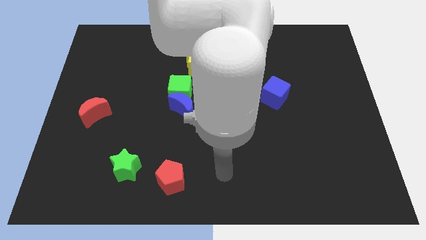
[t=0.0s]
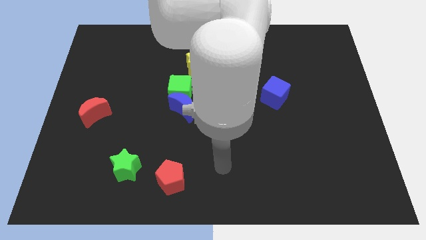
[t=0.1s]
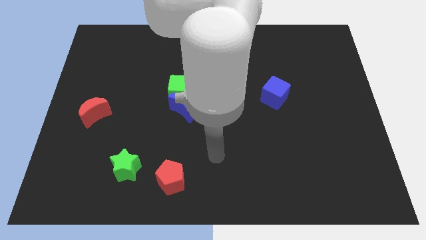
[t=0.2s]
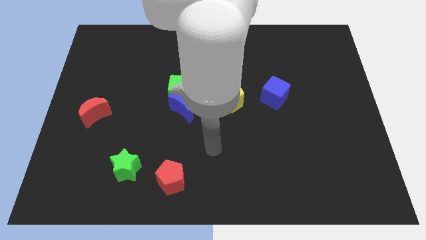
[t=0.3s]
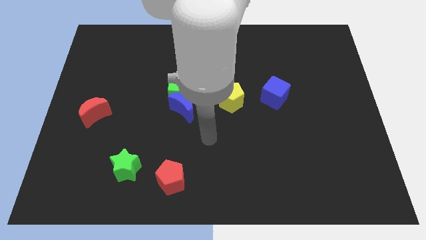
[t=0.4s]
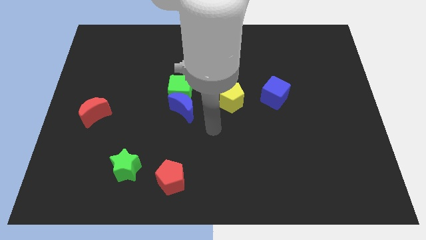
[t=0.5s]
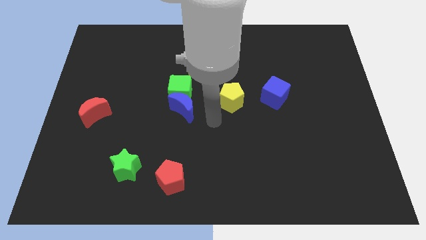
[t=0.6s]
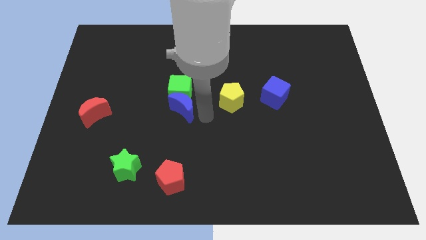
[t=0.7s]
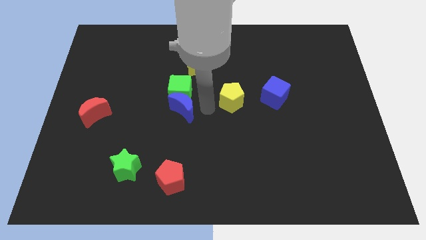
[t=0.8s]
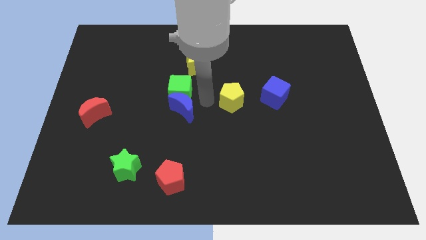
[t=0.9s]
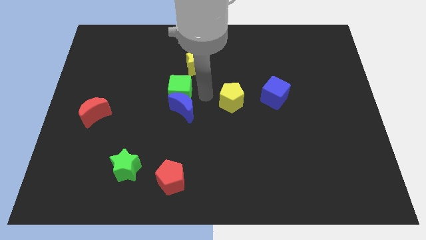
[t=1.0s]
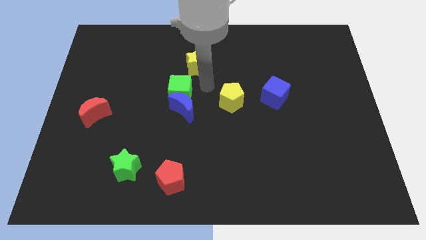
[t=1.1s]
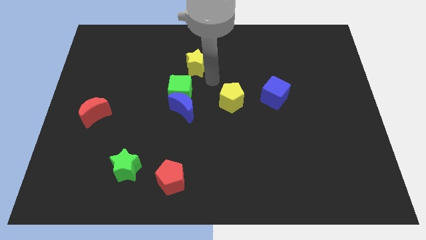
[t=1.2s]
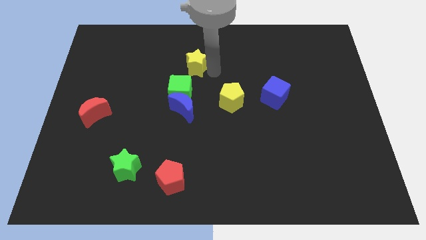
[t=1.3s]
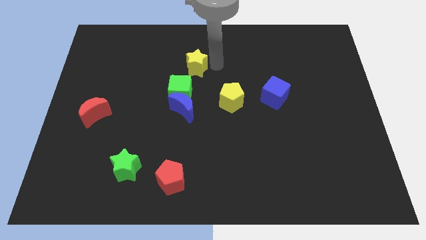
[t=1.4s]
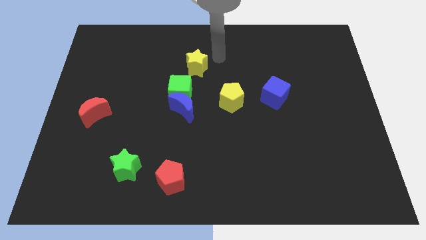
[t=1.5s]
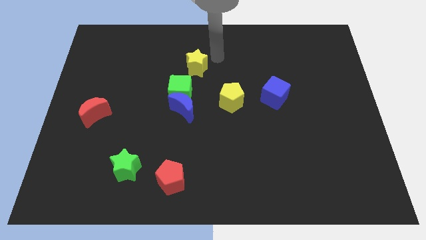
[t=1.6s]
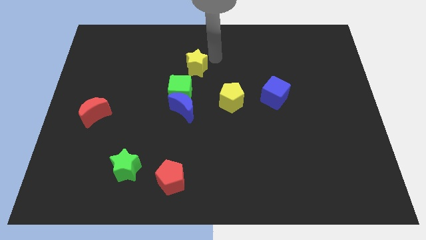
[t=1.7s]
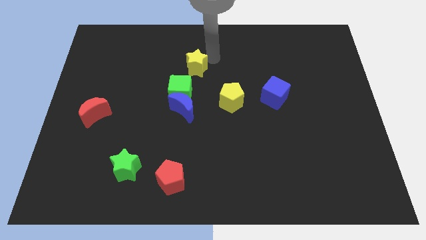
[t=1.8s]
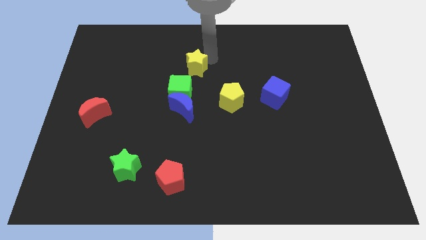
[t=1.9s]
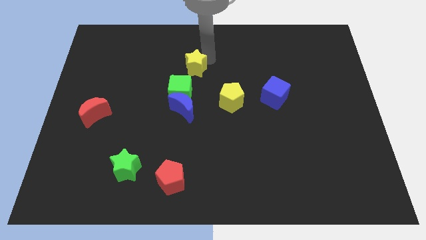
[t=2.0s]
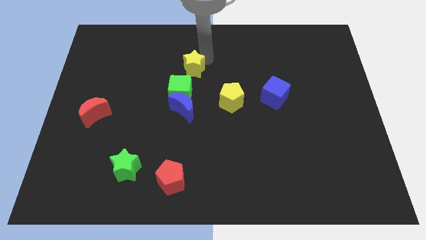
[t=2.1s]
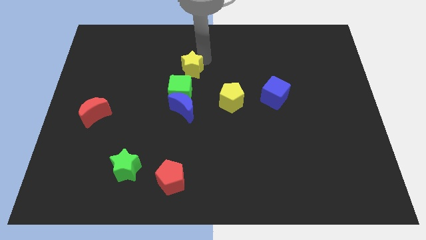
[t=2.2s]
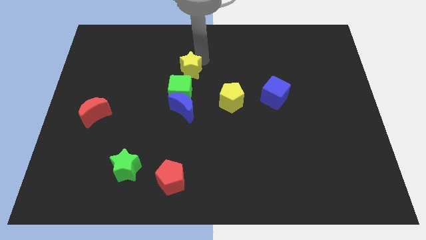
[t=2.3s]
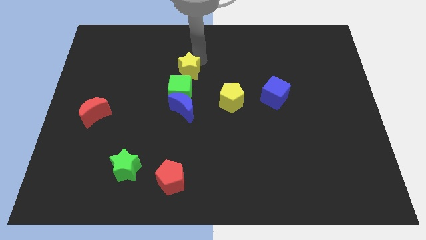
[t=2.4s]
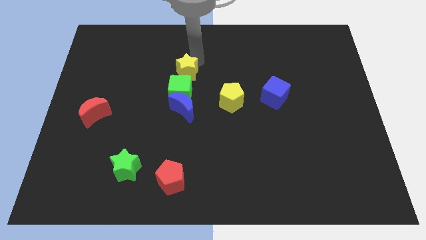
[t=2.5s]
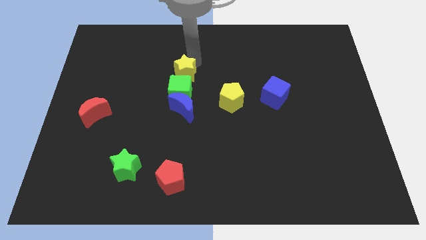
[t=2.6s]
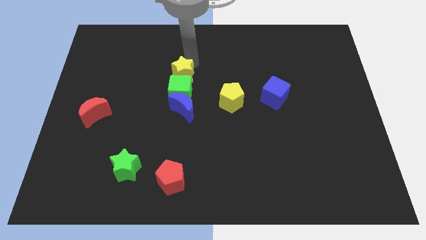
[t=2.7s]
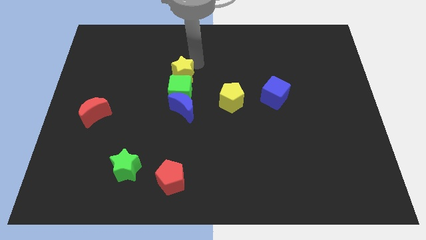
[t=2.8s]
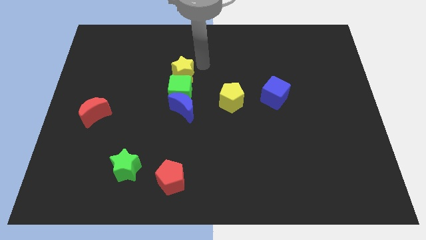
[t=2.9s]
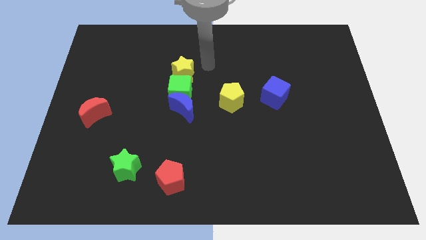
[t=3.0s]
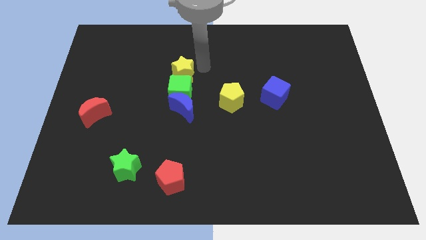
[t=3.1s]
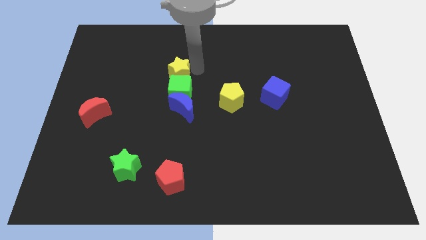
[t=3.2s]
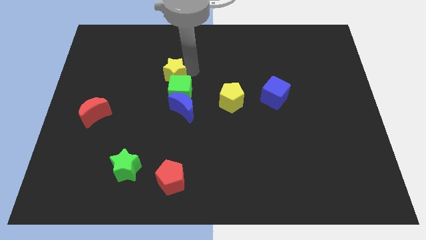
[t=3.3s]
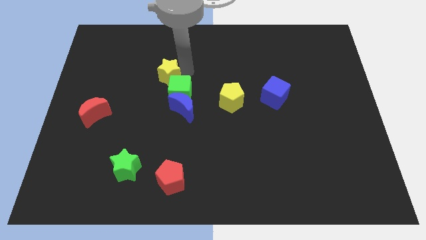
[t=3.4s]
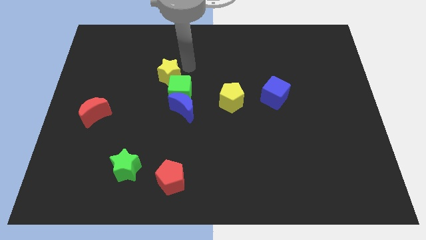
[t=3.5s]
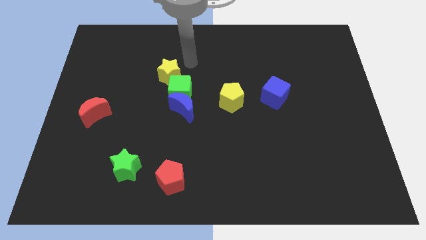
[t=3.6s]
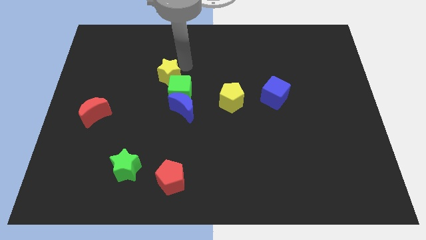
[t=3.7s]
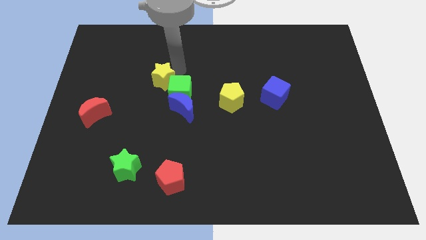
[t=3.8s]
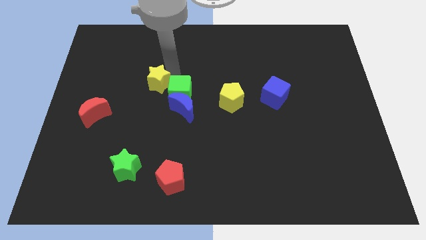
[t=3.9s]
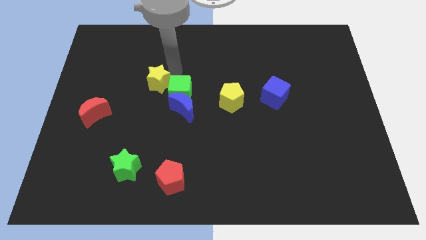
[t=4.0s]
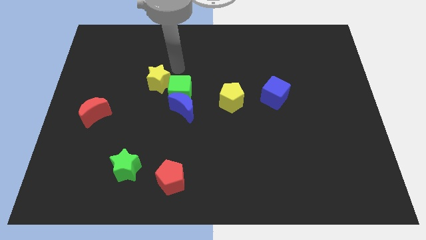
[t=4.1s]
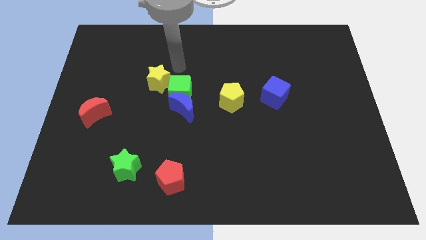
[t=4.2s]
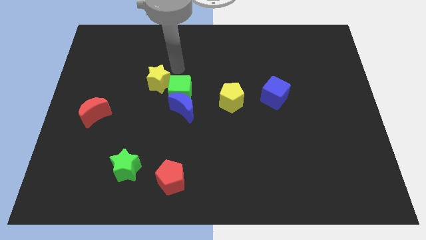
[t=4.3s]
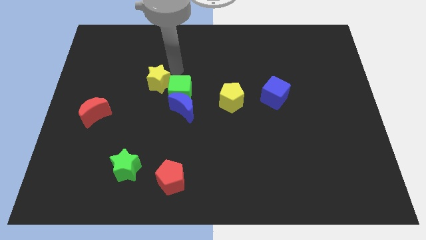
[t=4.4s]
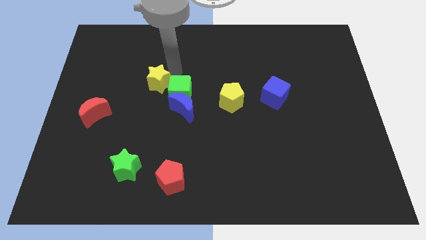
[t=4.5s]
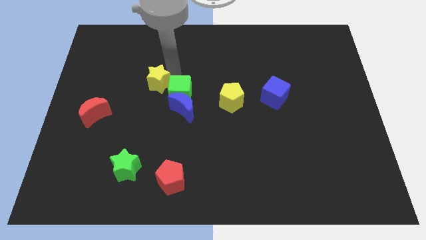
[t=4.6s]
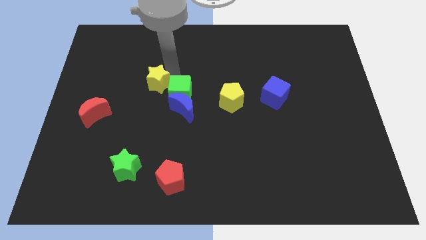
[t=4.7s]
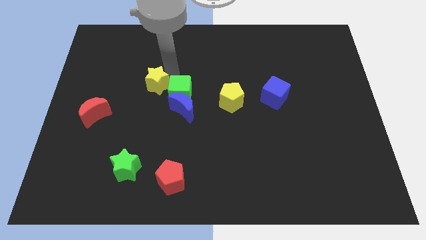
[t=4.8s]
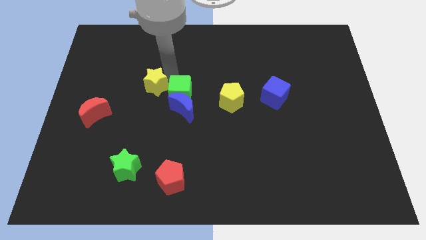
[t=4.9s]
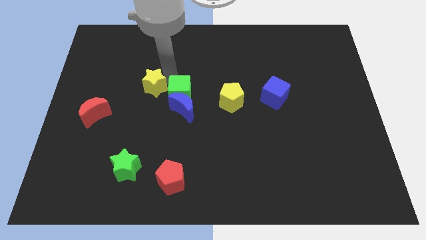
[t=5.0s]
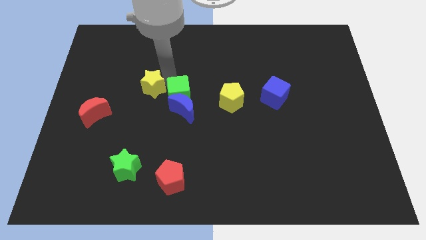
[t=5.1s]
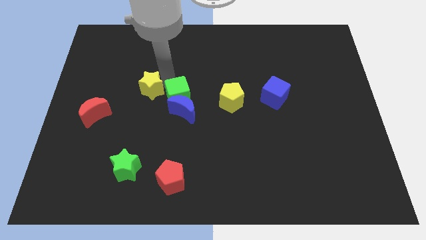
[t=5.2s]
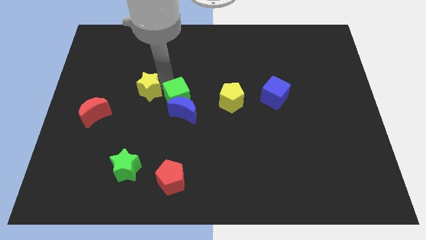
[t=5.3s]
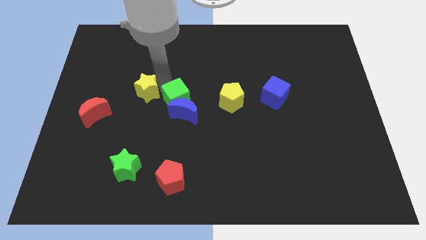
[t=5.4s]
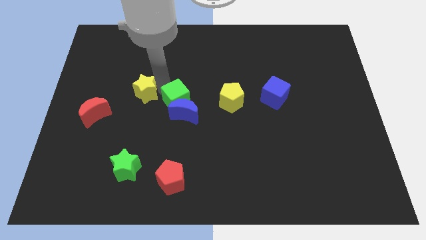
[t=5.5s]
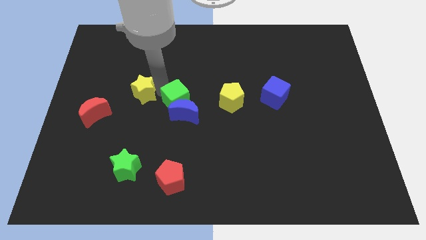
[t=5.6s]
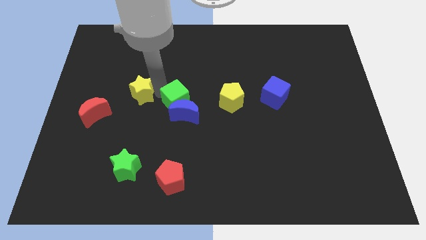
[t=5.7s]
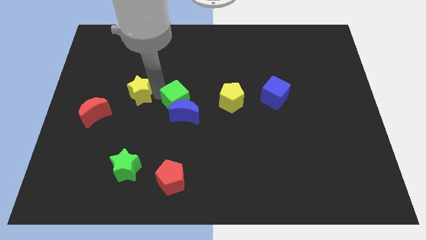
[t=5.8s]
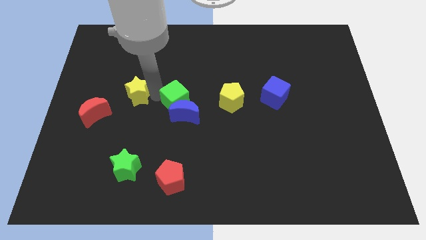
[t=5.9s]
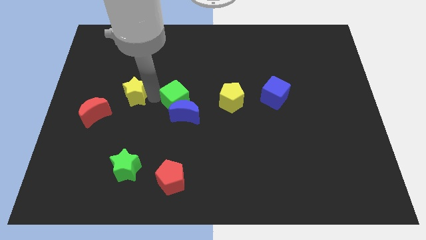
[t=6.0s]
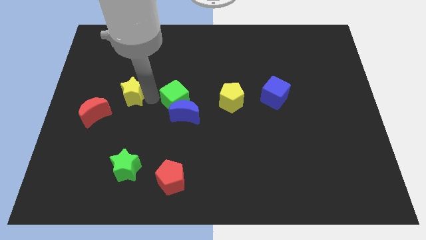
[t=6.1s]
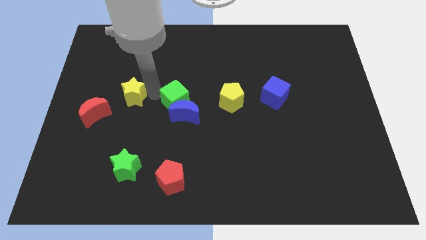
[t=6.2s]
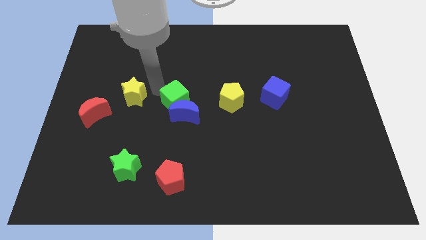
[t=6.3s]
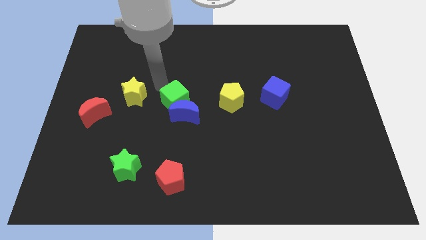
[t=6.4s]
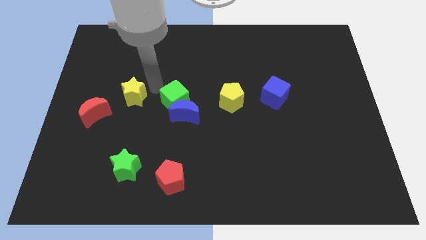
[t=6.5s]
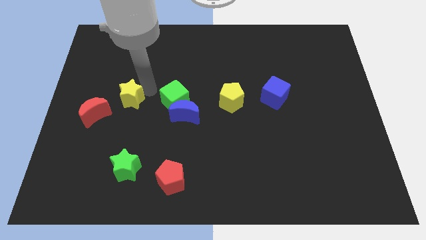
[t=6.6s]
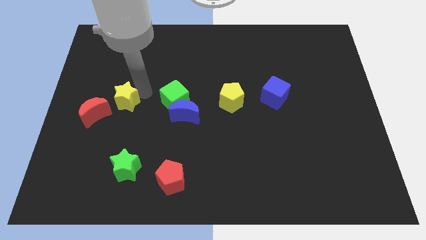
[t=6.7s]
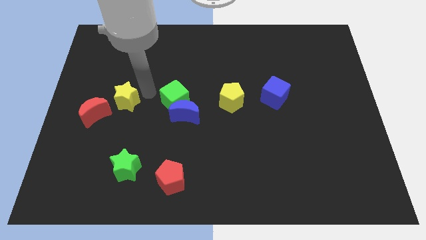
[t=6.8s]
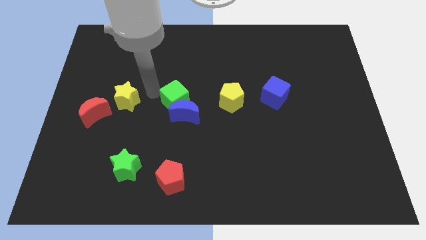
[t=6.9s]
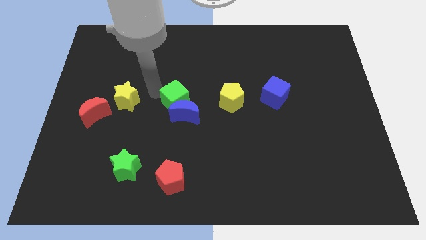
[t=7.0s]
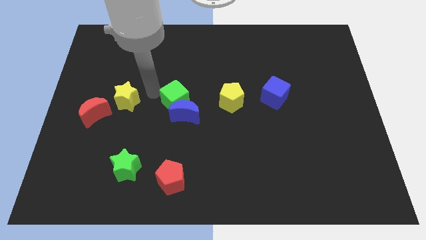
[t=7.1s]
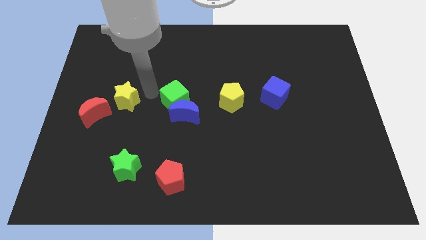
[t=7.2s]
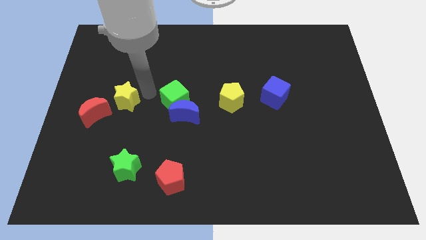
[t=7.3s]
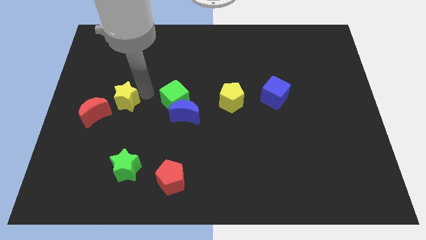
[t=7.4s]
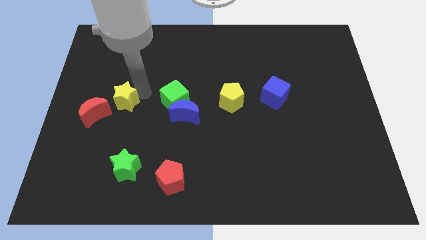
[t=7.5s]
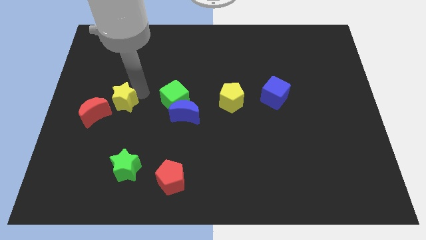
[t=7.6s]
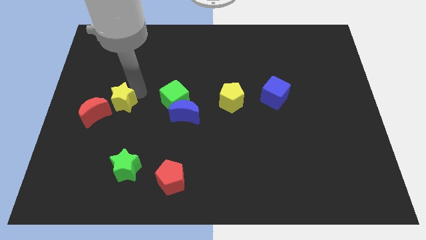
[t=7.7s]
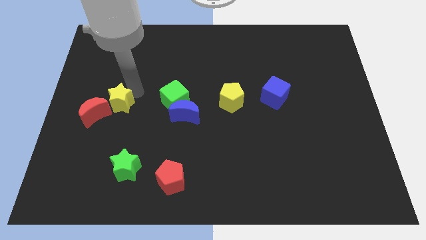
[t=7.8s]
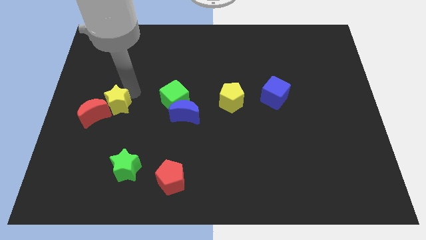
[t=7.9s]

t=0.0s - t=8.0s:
put the yellow star towards the red moon
